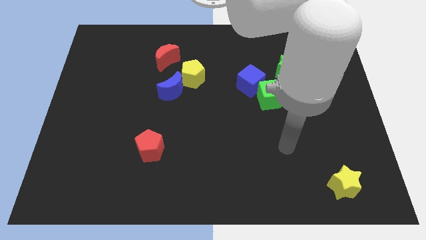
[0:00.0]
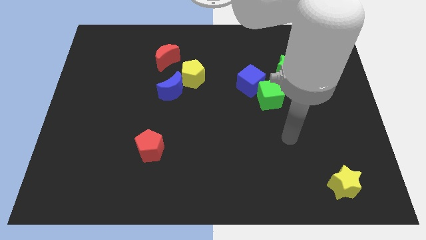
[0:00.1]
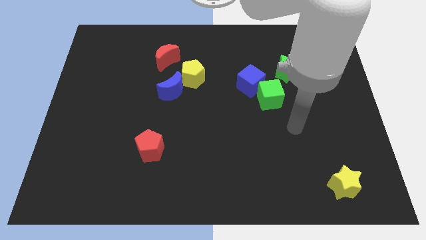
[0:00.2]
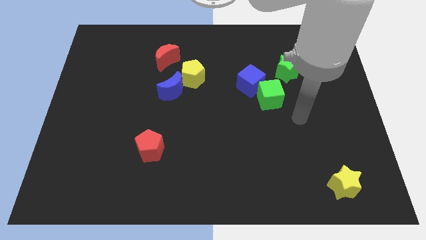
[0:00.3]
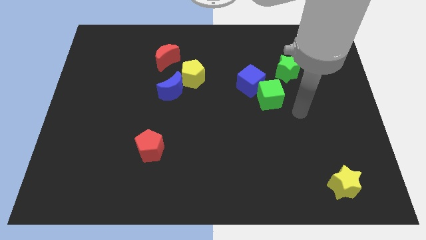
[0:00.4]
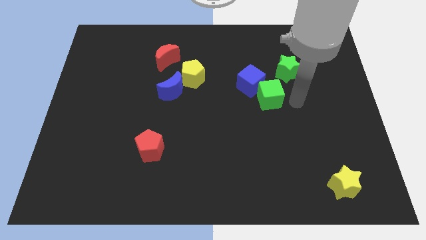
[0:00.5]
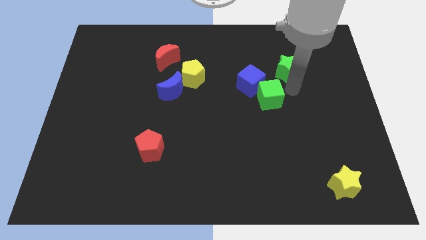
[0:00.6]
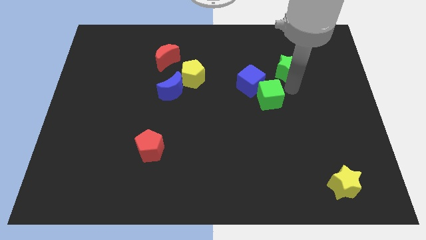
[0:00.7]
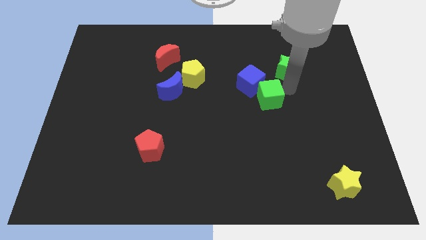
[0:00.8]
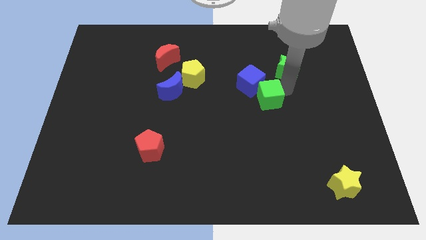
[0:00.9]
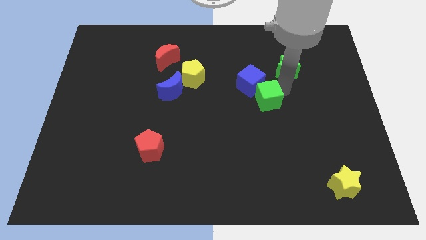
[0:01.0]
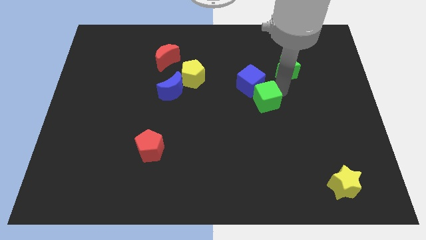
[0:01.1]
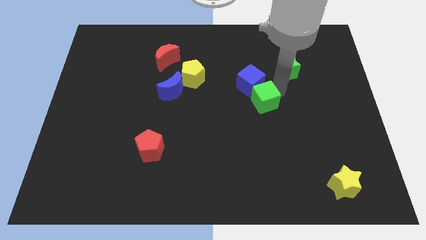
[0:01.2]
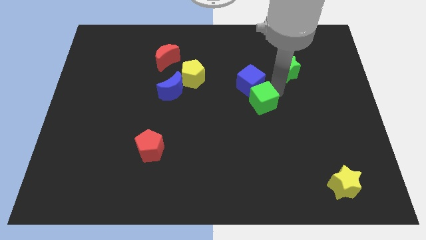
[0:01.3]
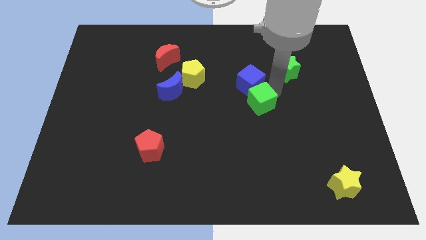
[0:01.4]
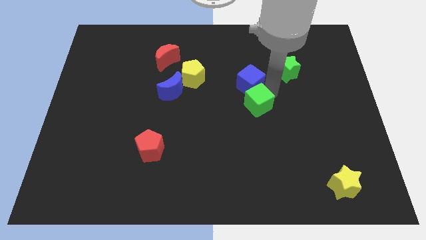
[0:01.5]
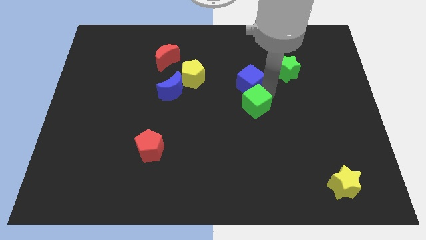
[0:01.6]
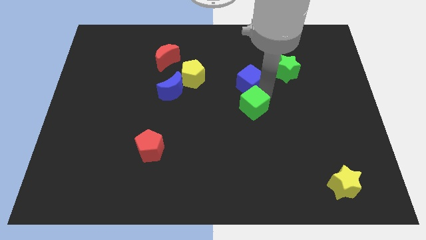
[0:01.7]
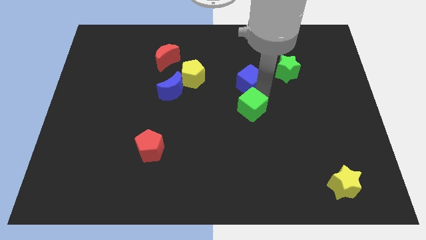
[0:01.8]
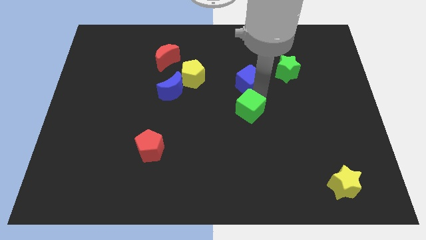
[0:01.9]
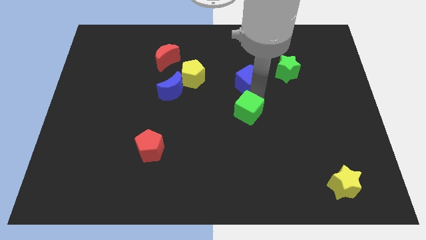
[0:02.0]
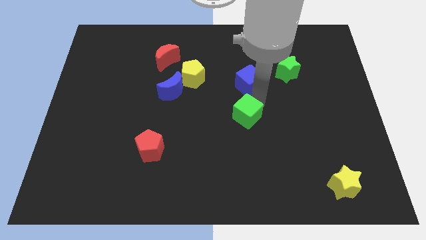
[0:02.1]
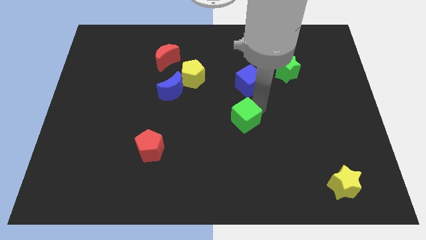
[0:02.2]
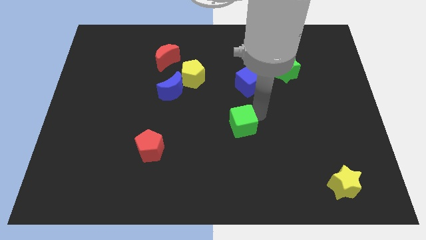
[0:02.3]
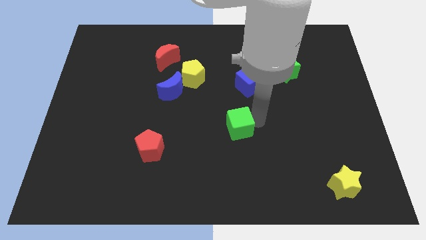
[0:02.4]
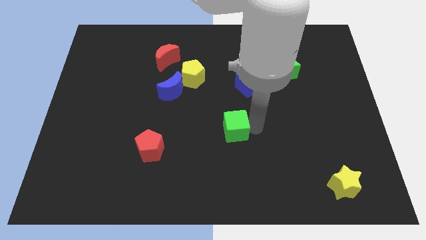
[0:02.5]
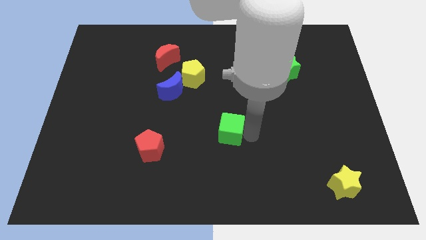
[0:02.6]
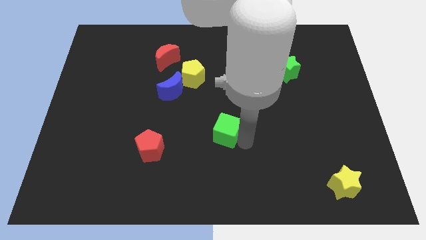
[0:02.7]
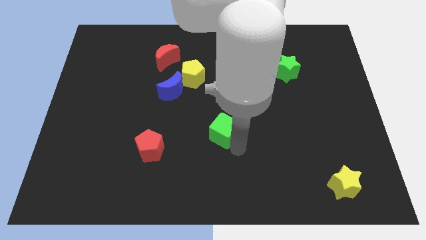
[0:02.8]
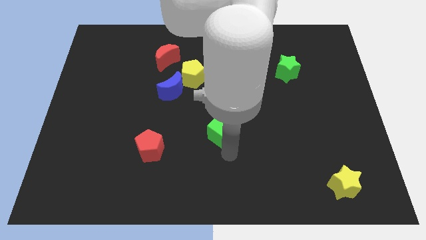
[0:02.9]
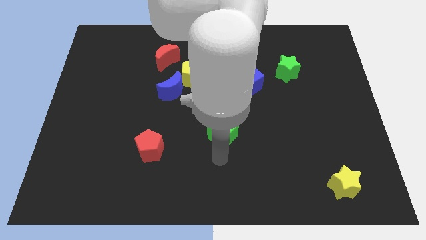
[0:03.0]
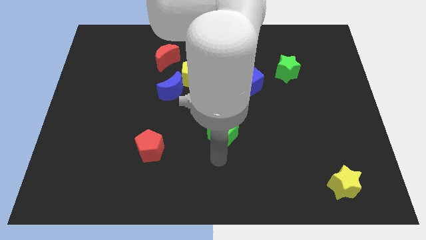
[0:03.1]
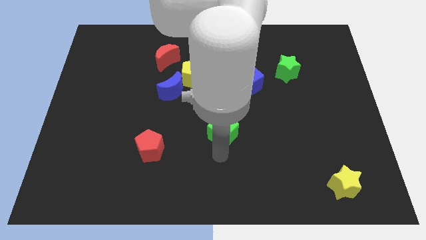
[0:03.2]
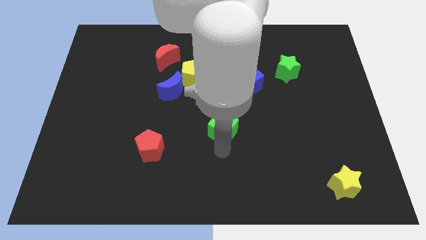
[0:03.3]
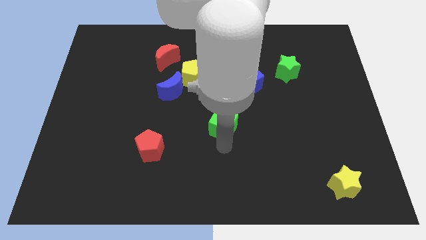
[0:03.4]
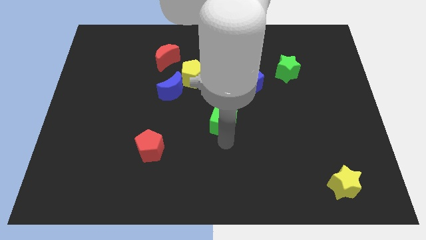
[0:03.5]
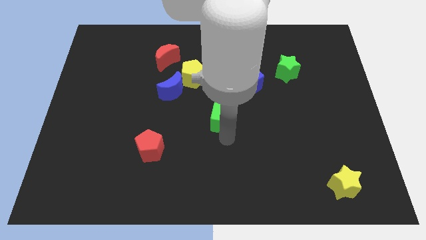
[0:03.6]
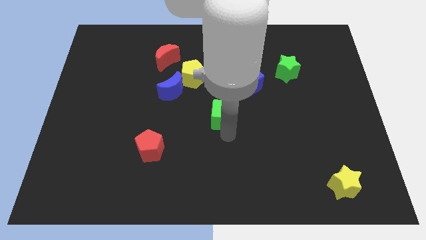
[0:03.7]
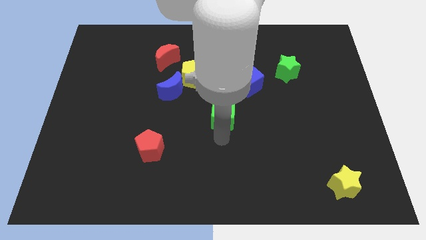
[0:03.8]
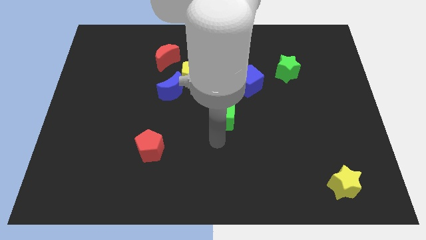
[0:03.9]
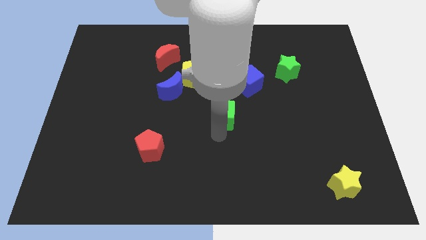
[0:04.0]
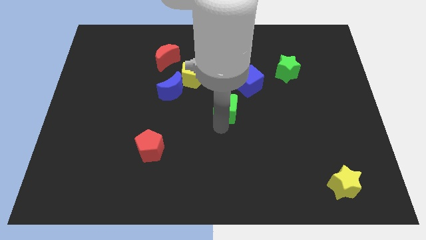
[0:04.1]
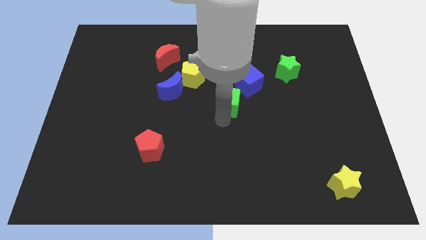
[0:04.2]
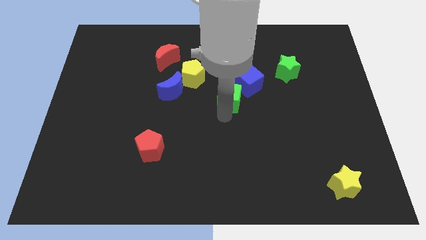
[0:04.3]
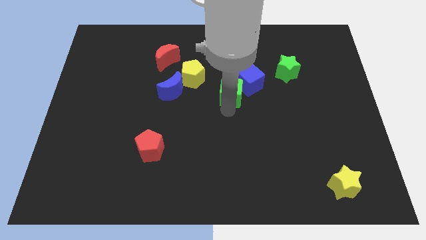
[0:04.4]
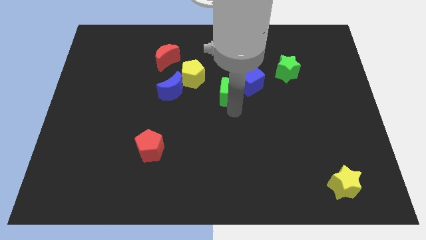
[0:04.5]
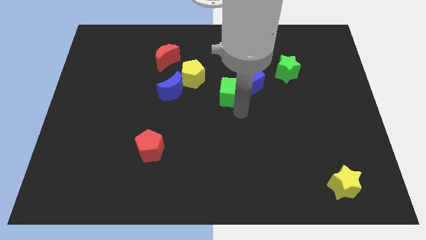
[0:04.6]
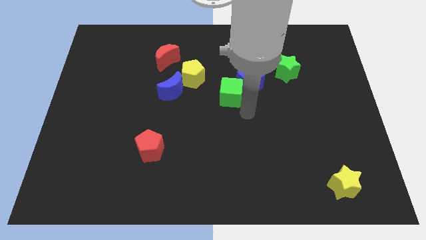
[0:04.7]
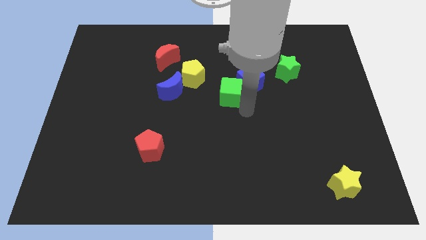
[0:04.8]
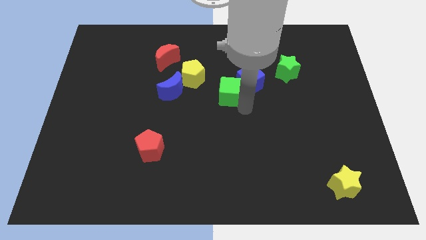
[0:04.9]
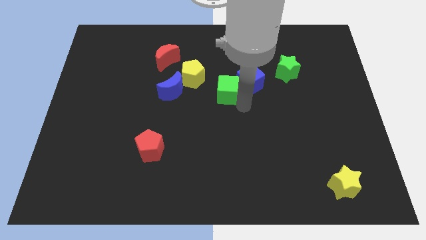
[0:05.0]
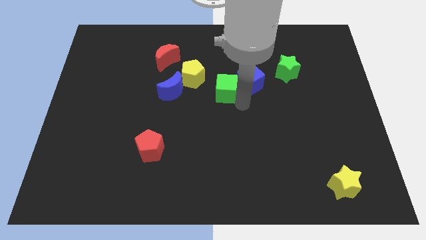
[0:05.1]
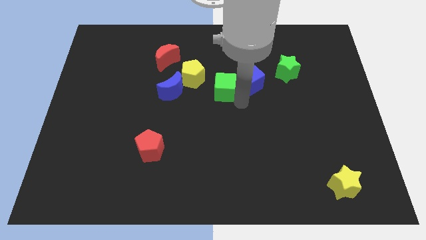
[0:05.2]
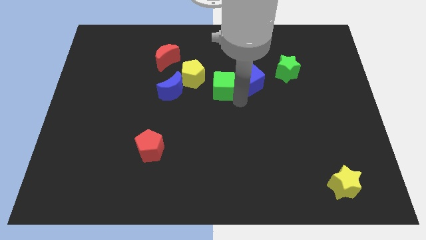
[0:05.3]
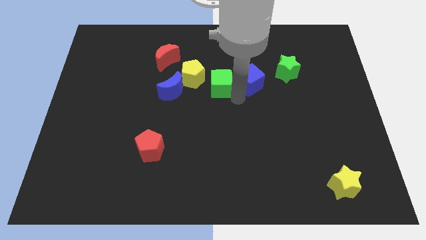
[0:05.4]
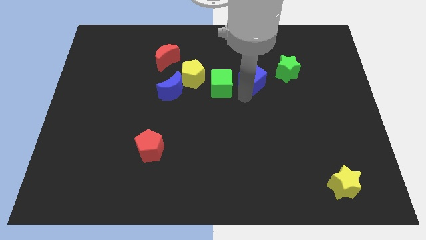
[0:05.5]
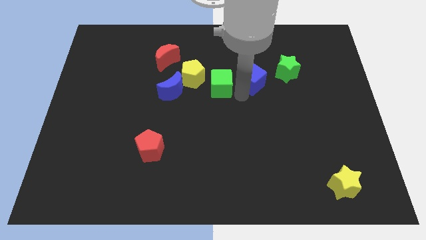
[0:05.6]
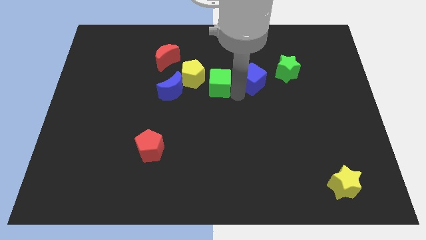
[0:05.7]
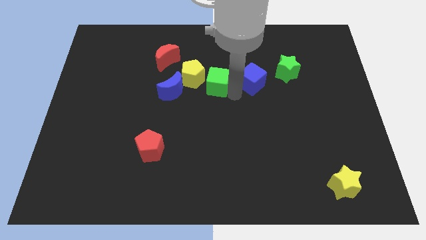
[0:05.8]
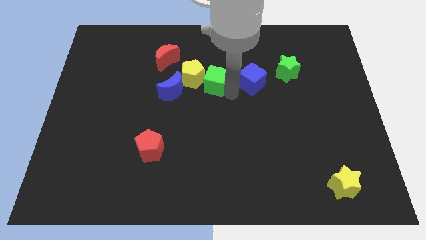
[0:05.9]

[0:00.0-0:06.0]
push the green cube next to the yellow pentagon
